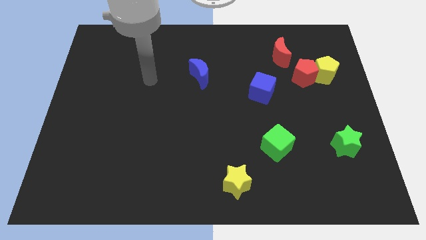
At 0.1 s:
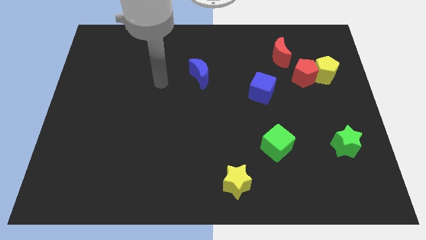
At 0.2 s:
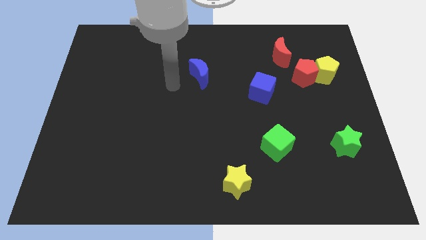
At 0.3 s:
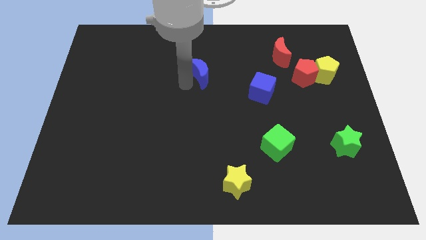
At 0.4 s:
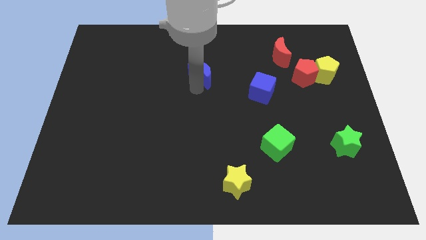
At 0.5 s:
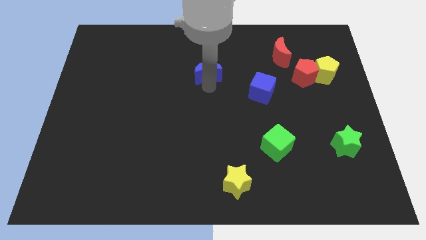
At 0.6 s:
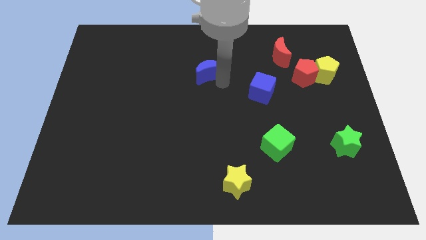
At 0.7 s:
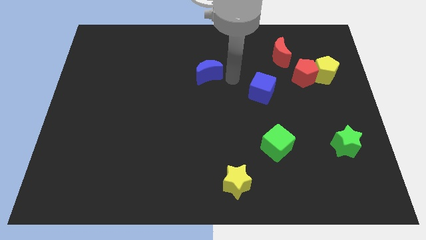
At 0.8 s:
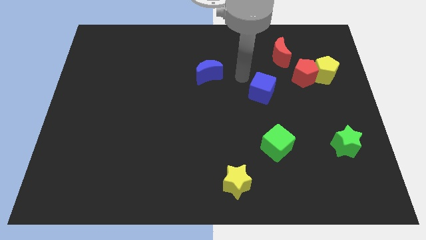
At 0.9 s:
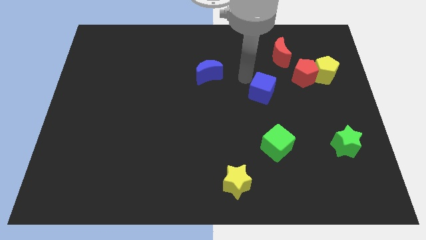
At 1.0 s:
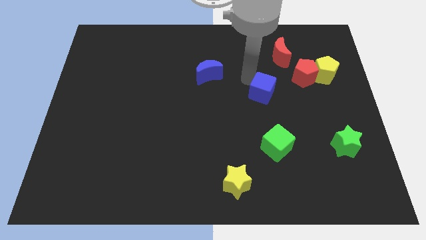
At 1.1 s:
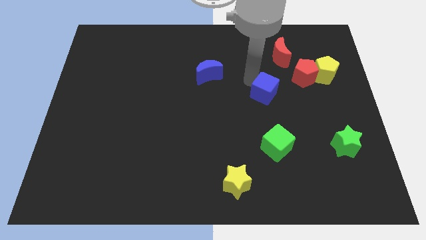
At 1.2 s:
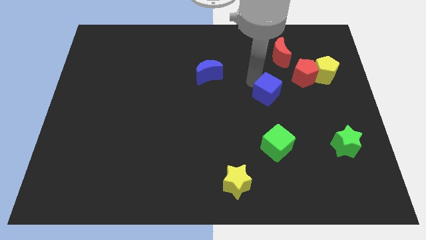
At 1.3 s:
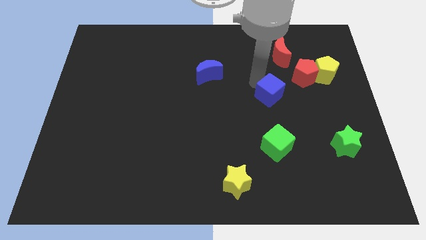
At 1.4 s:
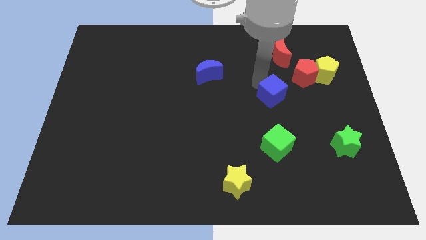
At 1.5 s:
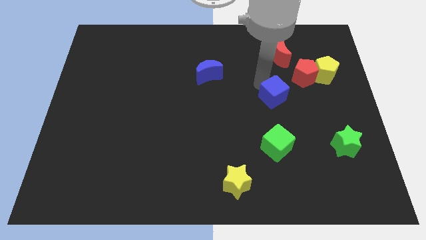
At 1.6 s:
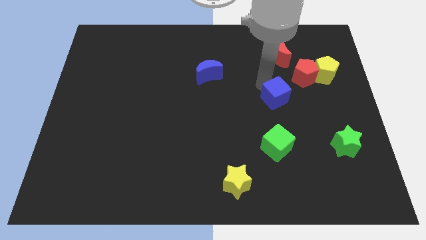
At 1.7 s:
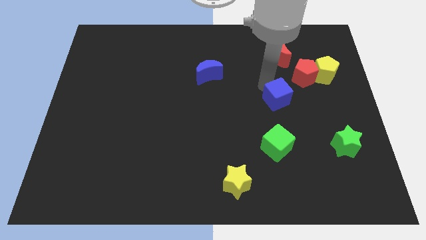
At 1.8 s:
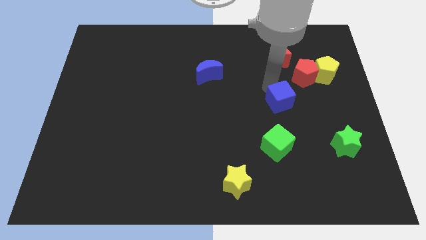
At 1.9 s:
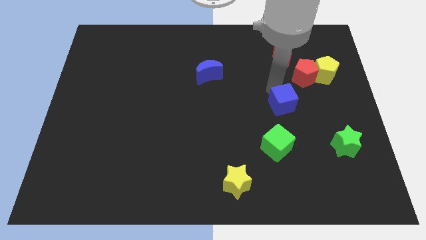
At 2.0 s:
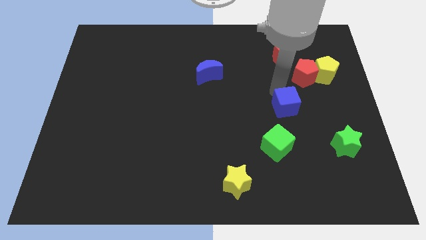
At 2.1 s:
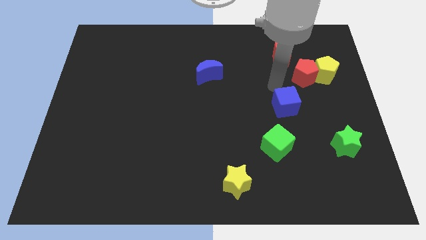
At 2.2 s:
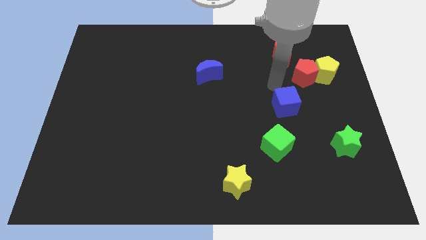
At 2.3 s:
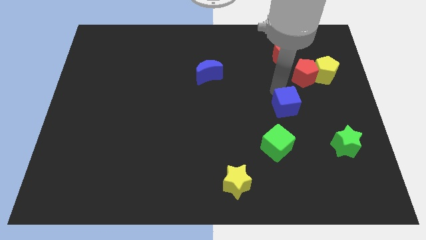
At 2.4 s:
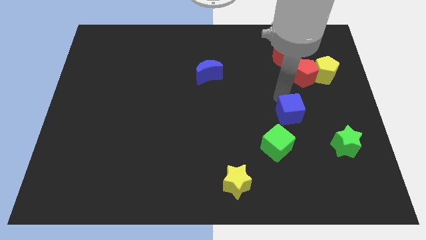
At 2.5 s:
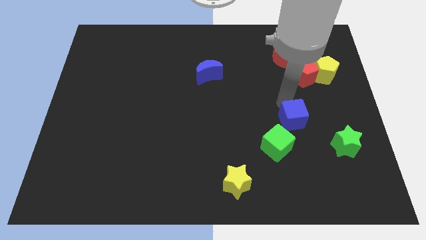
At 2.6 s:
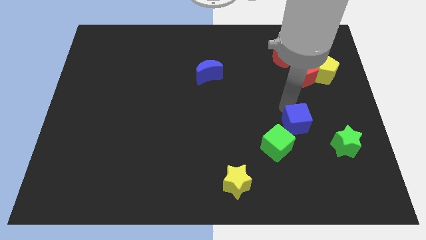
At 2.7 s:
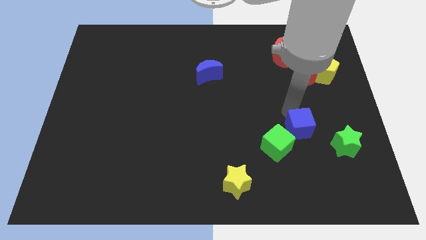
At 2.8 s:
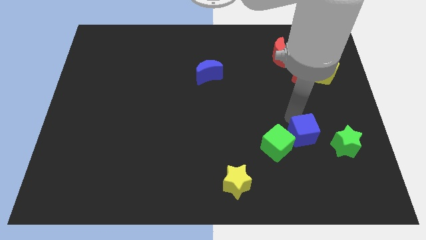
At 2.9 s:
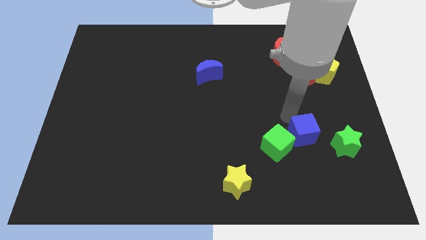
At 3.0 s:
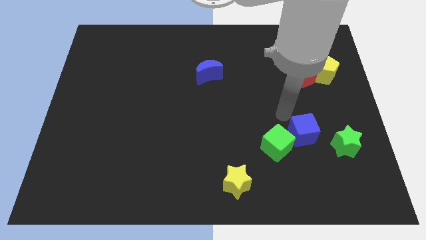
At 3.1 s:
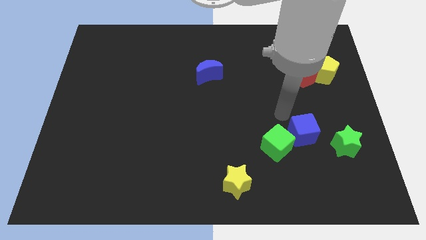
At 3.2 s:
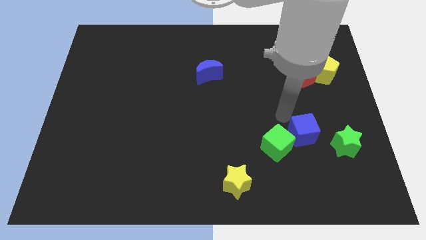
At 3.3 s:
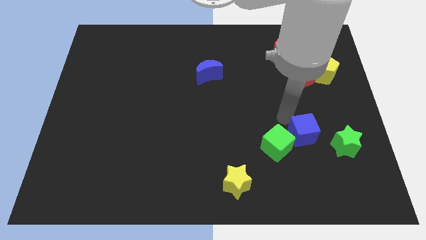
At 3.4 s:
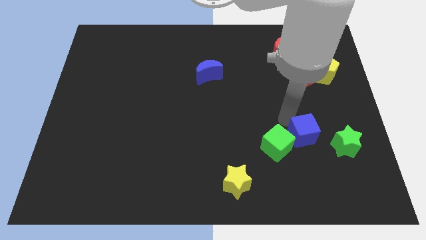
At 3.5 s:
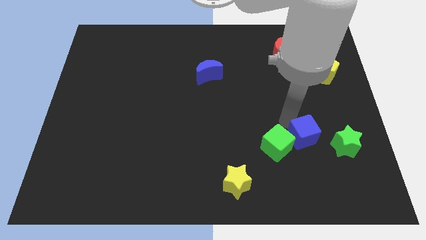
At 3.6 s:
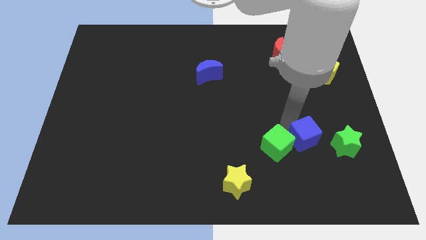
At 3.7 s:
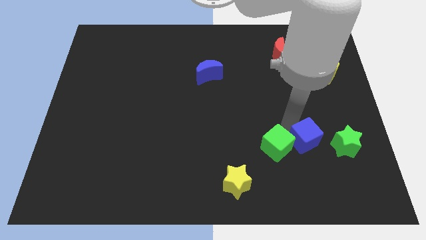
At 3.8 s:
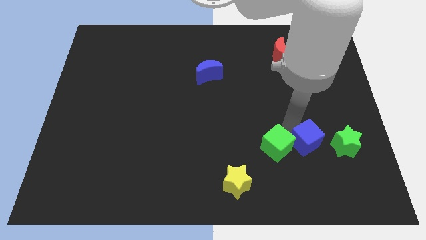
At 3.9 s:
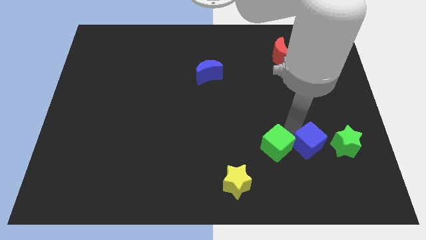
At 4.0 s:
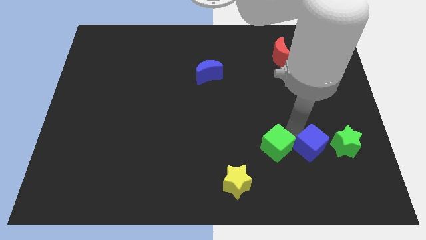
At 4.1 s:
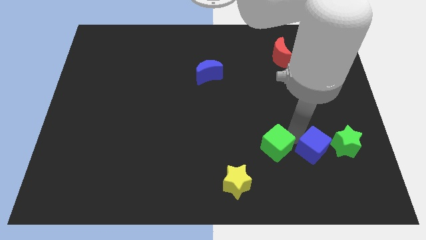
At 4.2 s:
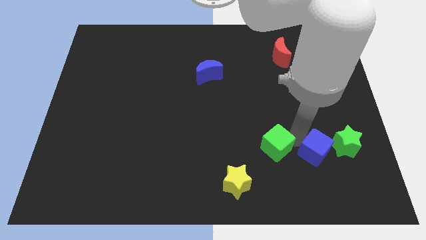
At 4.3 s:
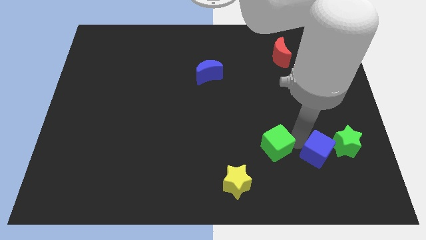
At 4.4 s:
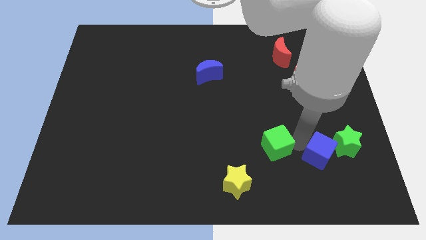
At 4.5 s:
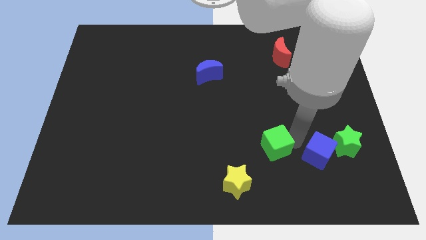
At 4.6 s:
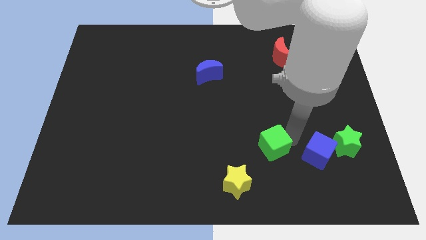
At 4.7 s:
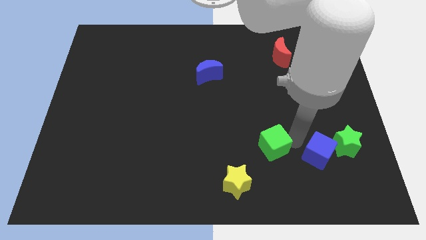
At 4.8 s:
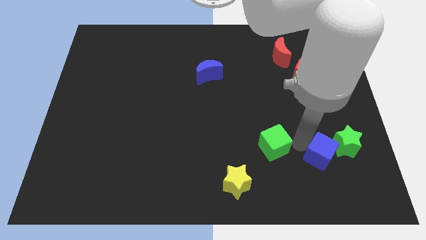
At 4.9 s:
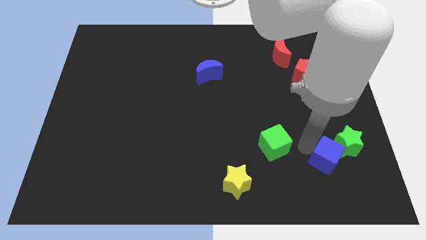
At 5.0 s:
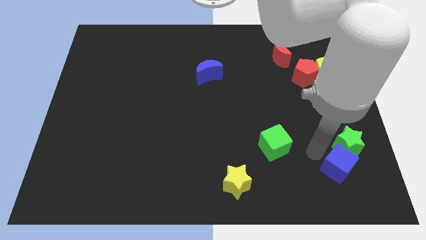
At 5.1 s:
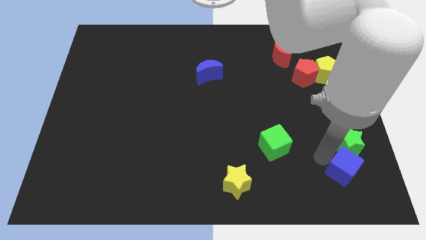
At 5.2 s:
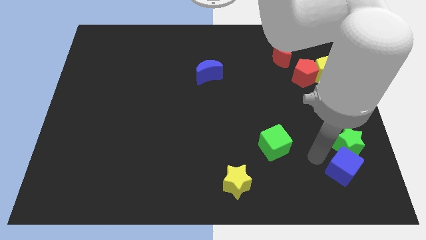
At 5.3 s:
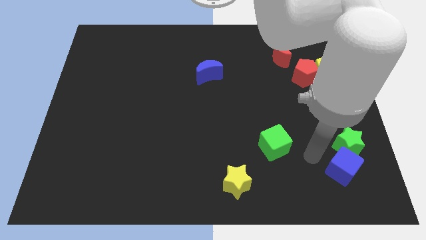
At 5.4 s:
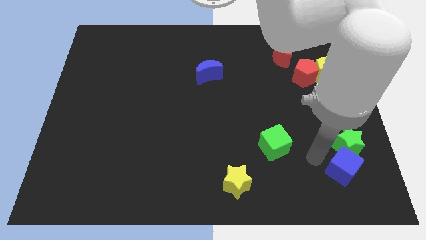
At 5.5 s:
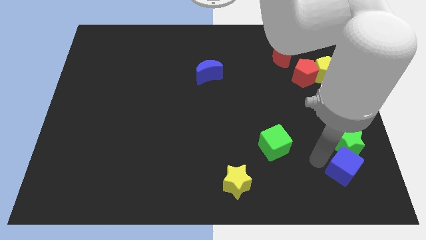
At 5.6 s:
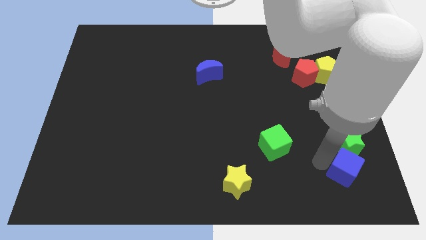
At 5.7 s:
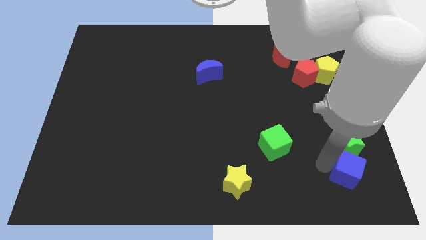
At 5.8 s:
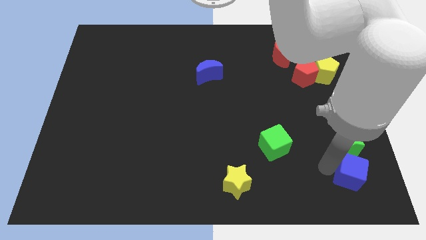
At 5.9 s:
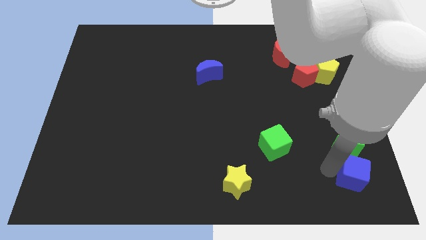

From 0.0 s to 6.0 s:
move the blue cube to the lower right corner

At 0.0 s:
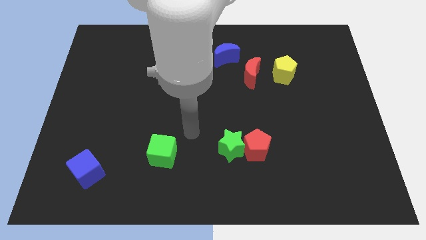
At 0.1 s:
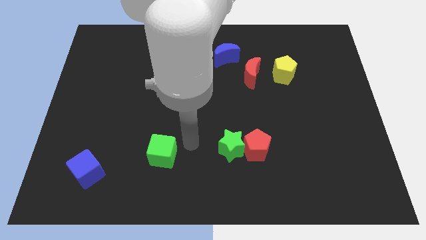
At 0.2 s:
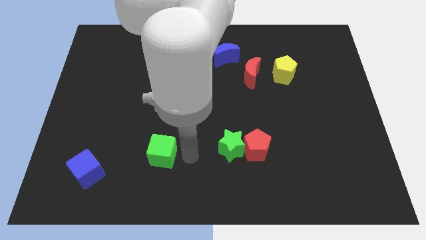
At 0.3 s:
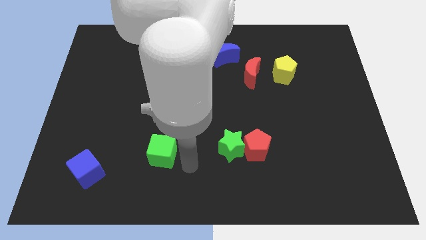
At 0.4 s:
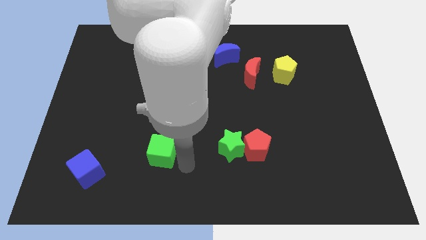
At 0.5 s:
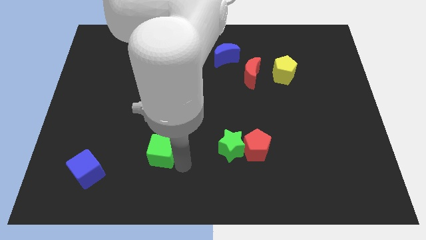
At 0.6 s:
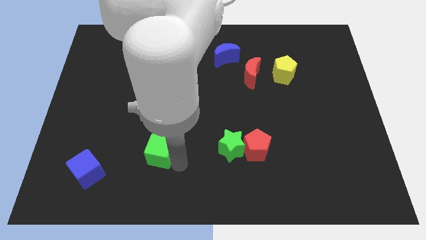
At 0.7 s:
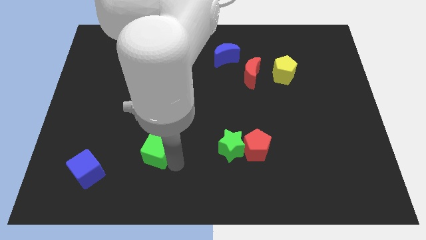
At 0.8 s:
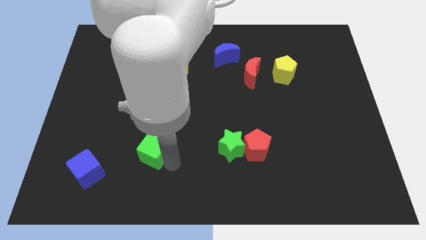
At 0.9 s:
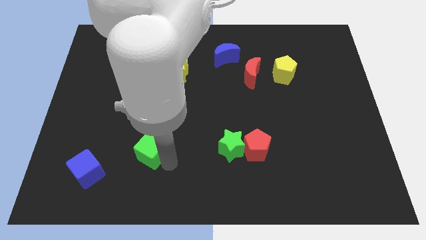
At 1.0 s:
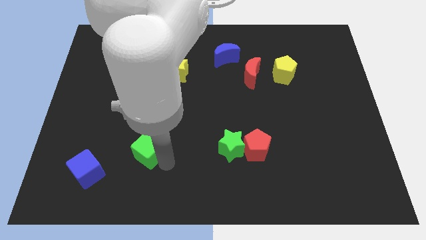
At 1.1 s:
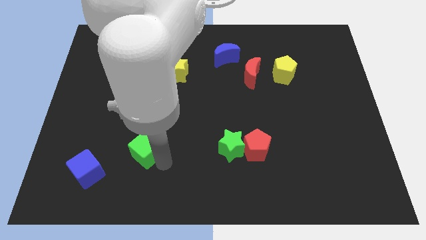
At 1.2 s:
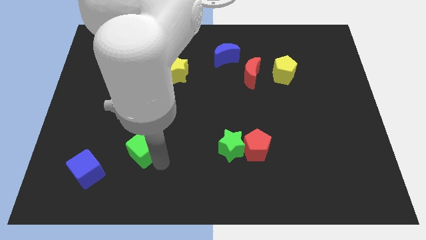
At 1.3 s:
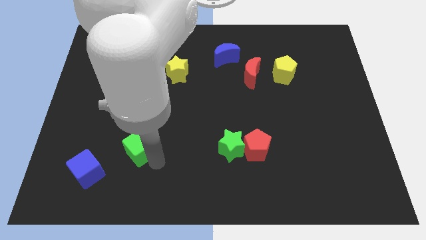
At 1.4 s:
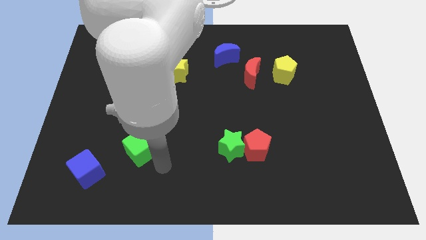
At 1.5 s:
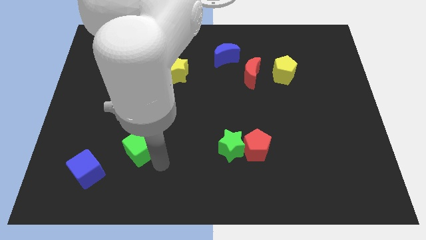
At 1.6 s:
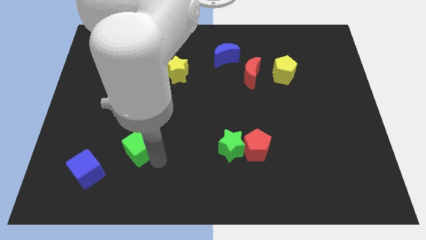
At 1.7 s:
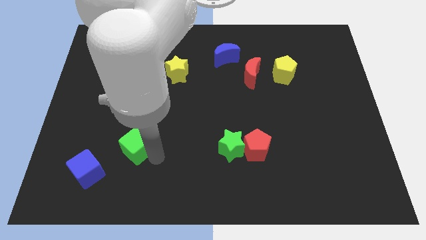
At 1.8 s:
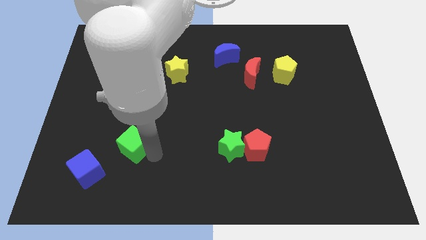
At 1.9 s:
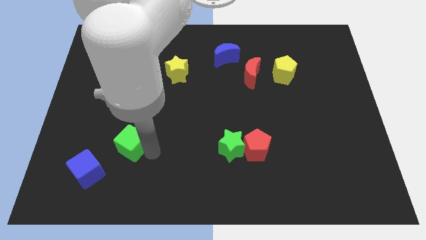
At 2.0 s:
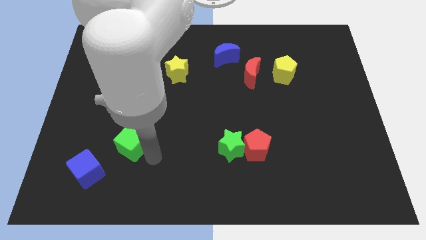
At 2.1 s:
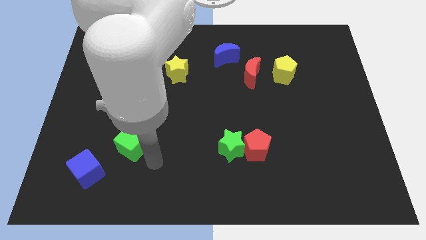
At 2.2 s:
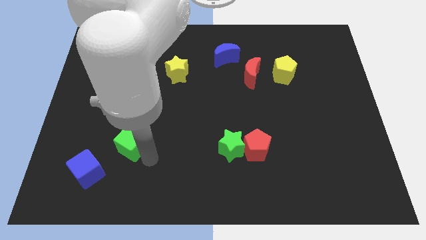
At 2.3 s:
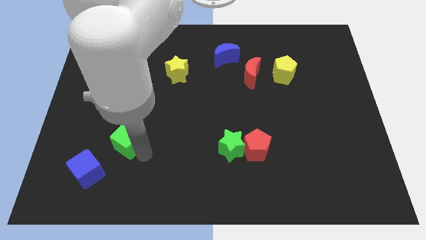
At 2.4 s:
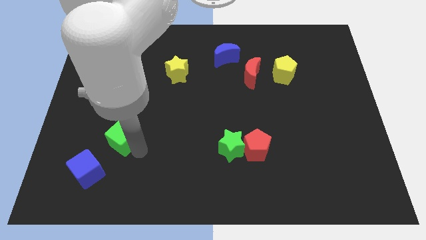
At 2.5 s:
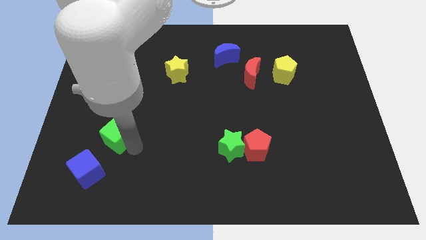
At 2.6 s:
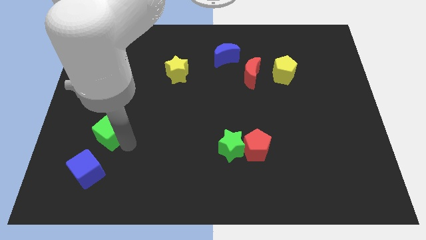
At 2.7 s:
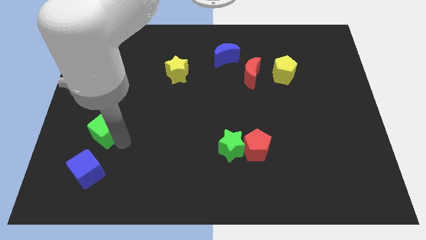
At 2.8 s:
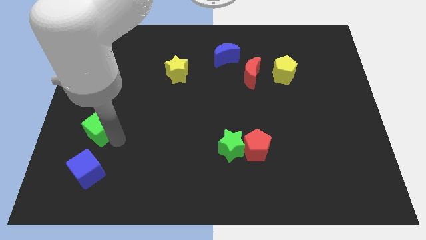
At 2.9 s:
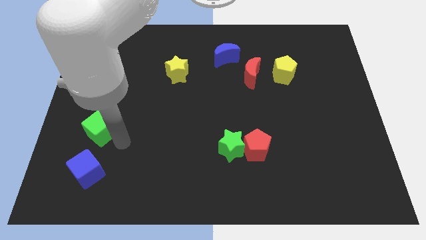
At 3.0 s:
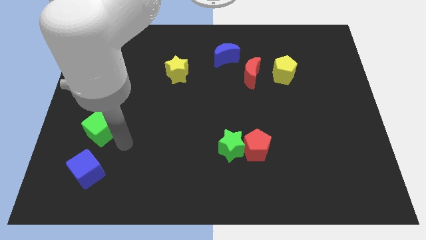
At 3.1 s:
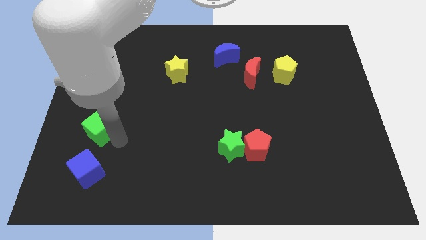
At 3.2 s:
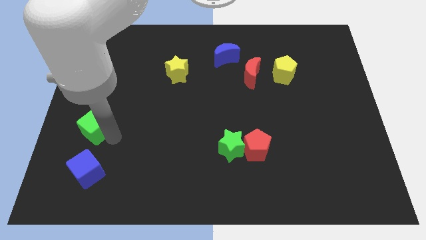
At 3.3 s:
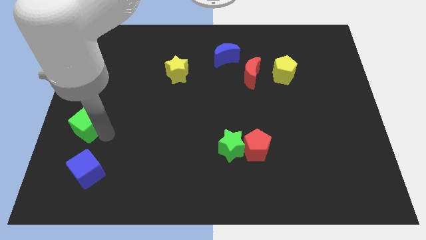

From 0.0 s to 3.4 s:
slide the green cube to the left side
